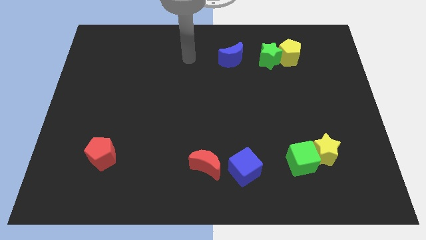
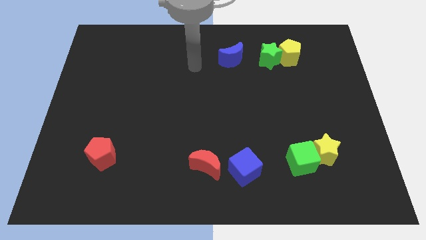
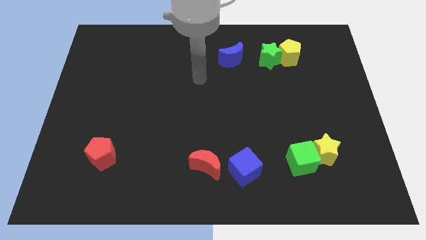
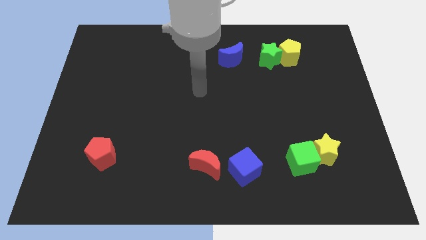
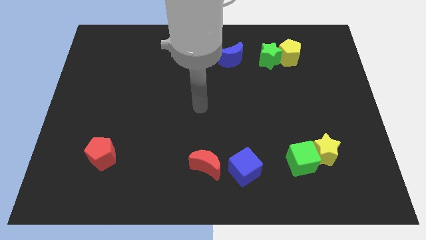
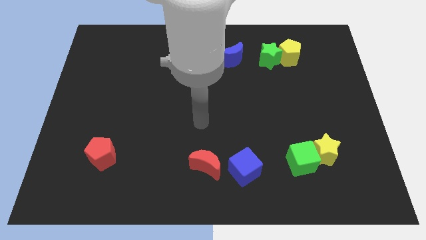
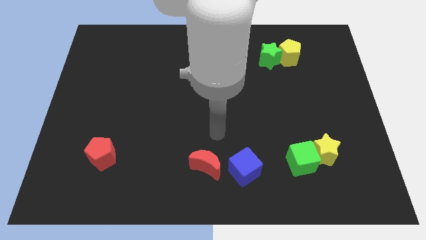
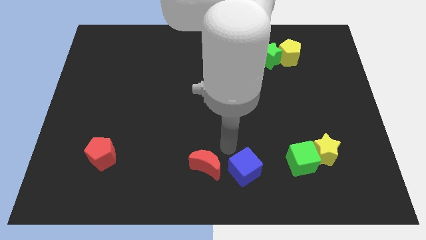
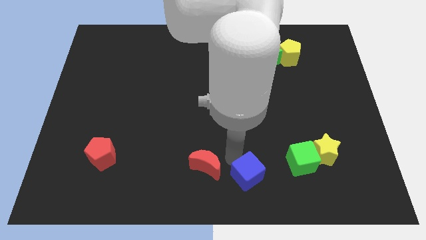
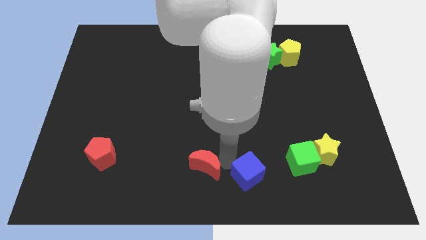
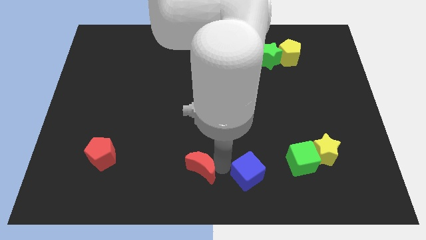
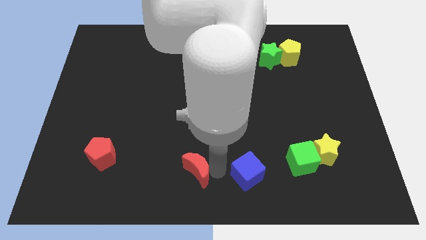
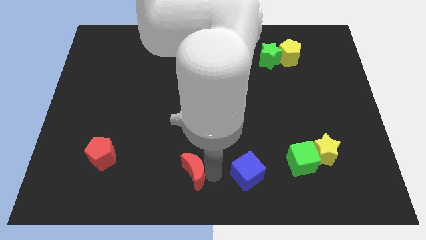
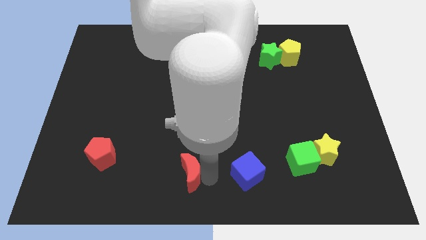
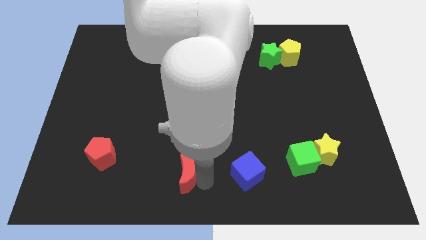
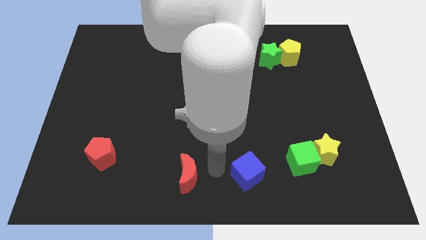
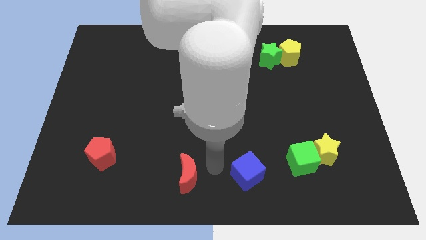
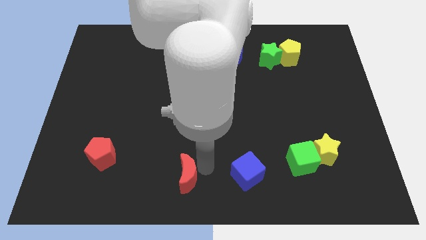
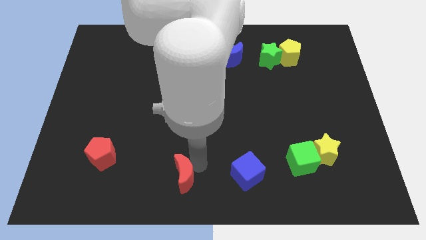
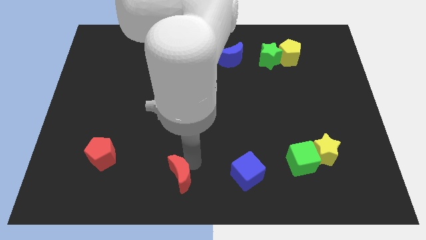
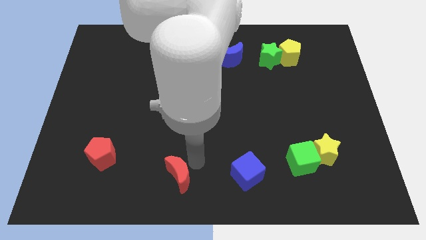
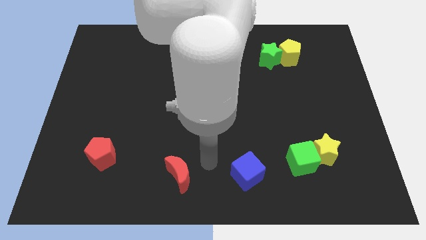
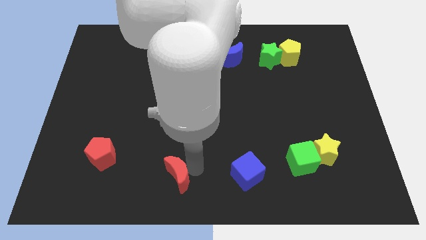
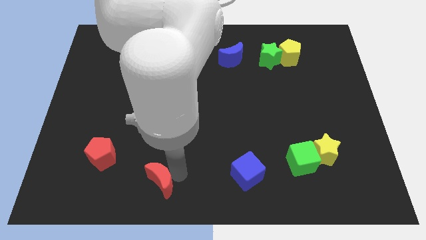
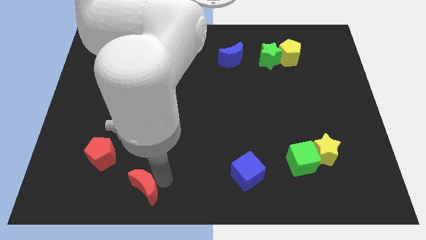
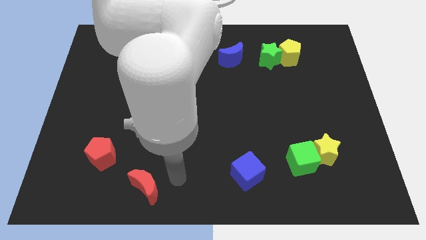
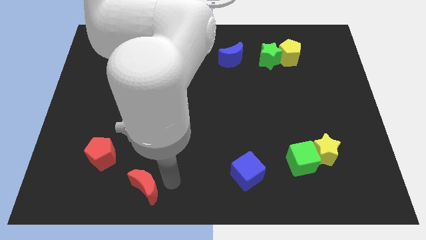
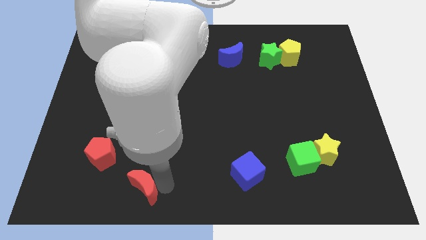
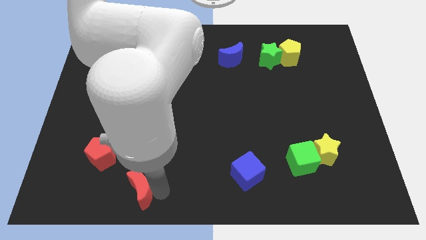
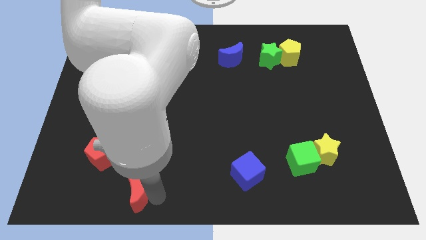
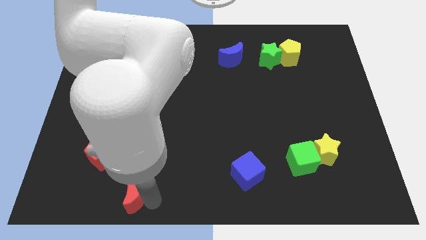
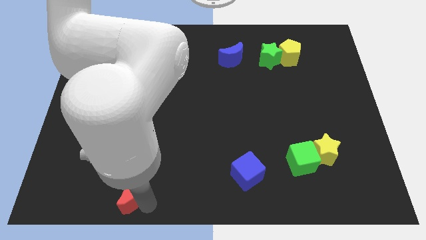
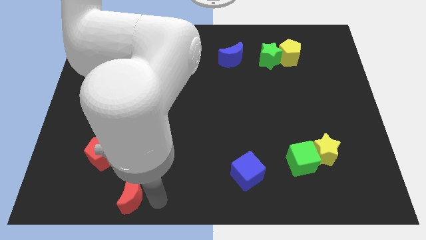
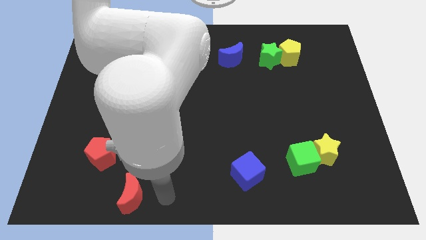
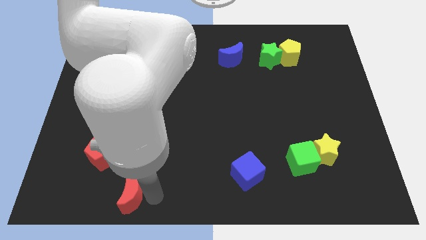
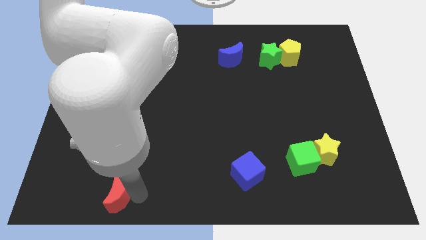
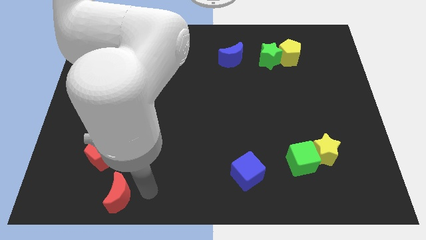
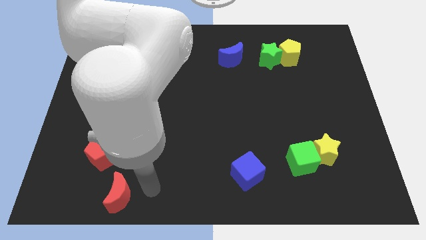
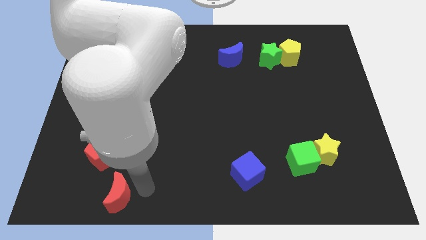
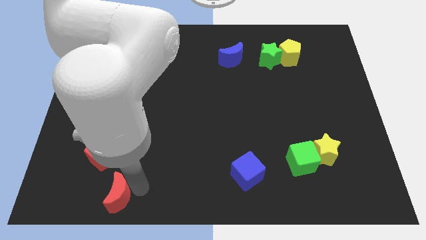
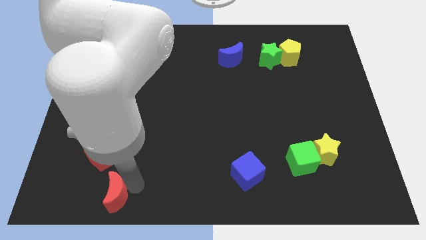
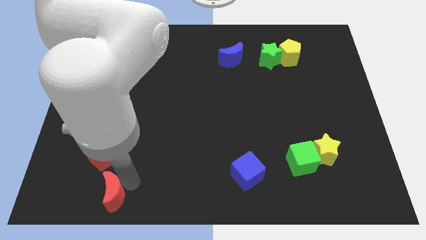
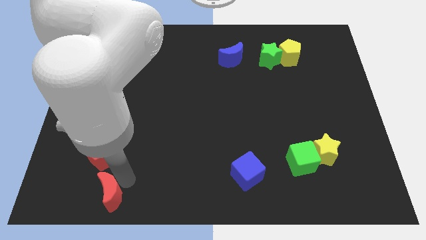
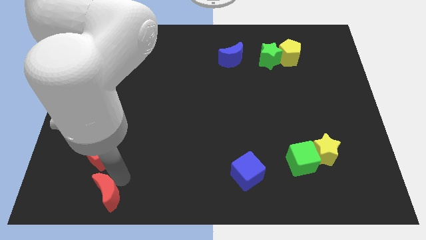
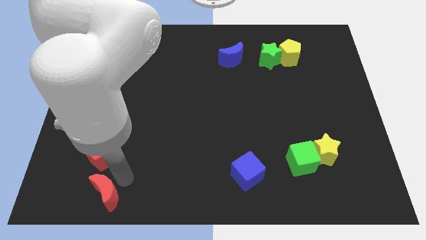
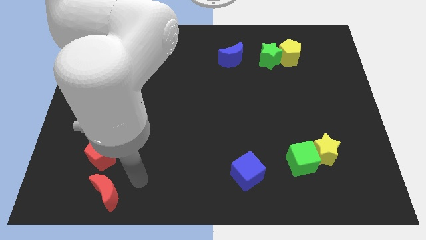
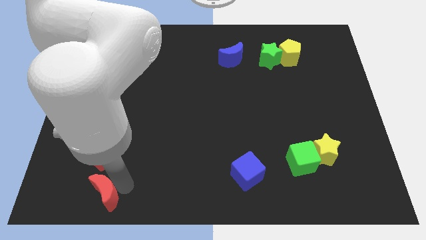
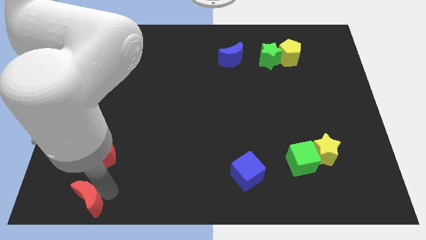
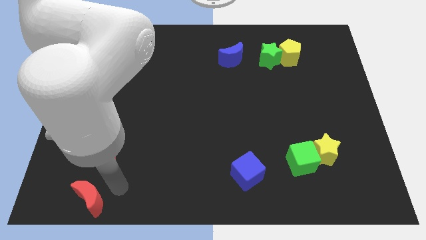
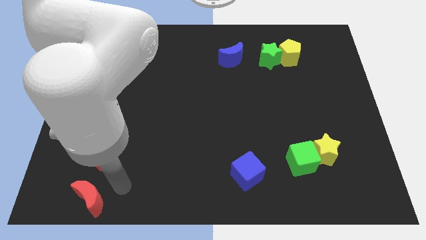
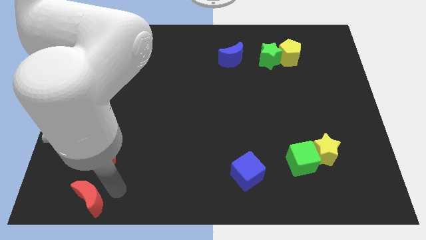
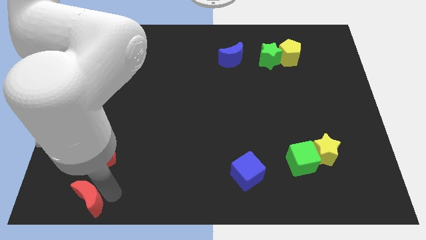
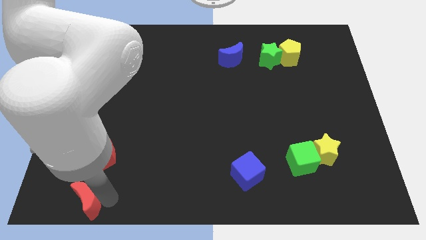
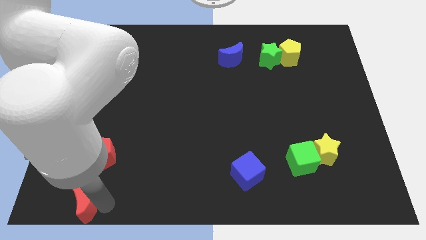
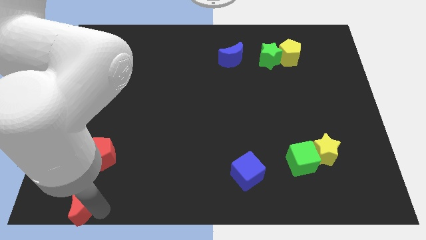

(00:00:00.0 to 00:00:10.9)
put the red moon to the bottom left of the board
